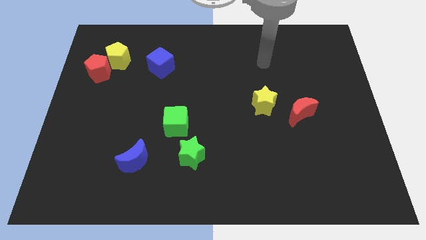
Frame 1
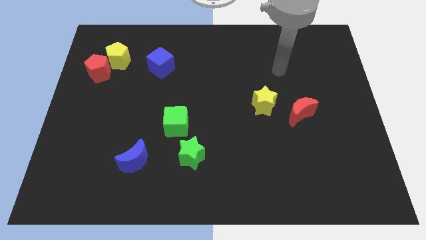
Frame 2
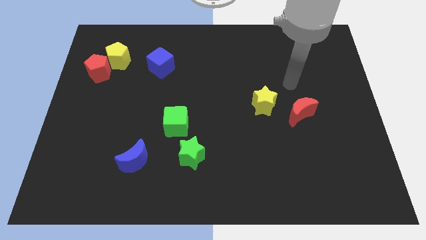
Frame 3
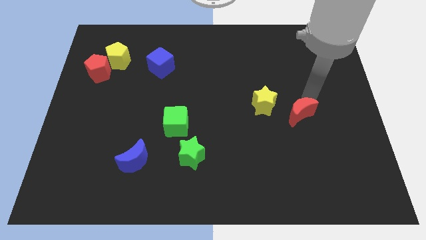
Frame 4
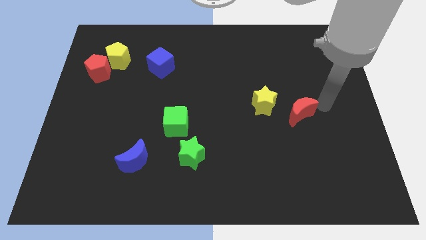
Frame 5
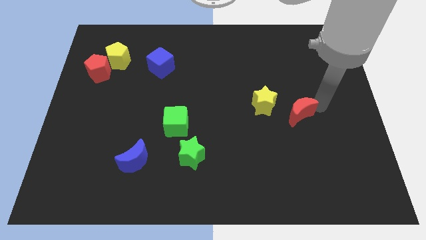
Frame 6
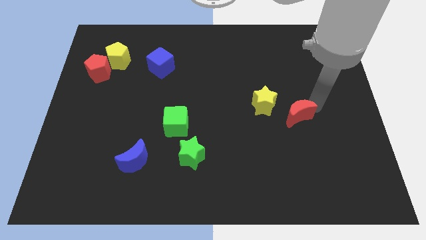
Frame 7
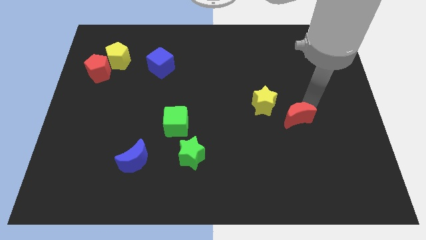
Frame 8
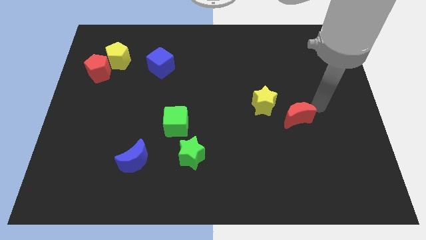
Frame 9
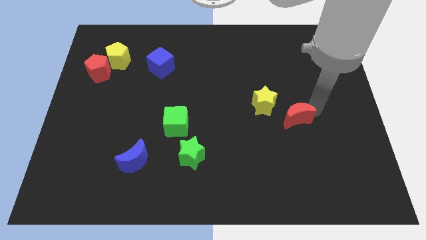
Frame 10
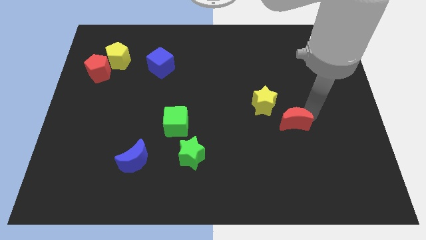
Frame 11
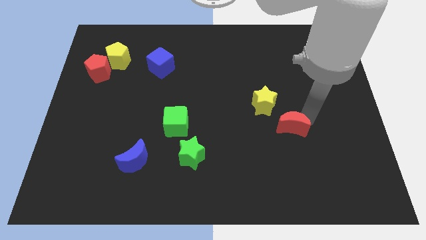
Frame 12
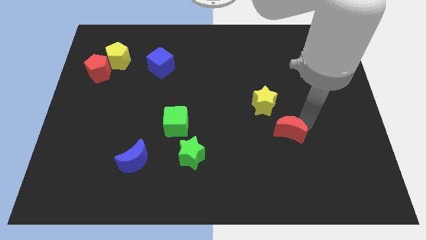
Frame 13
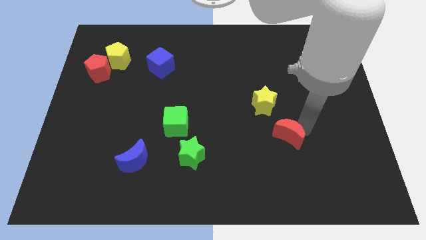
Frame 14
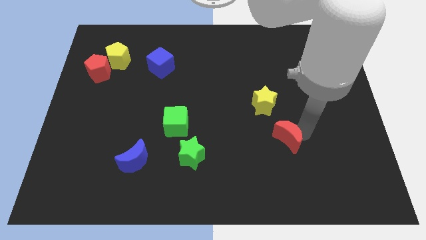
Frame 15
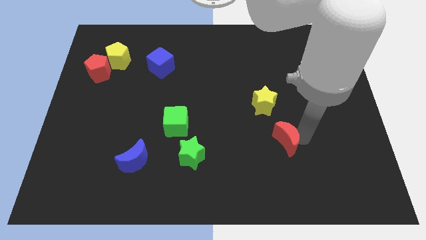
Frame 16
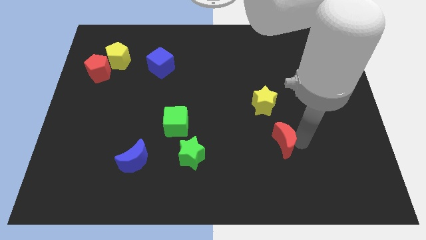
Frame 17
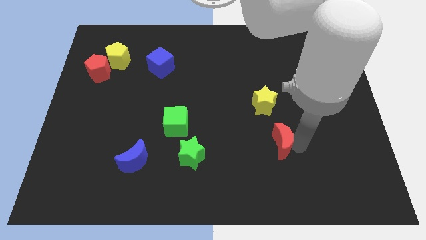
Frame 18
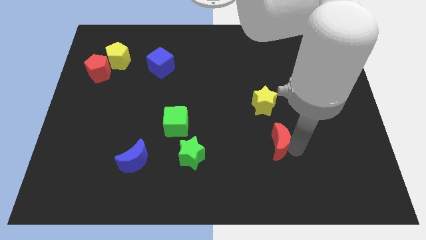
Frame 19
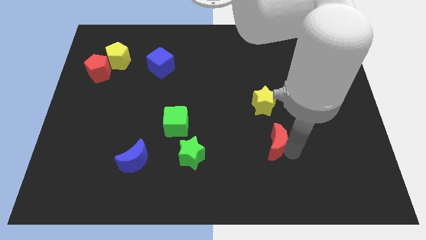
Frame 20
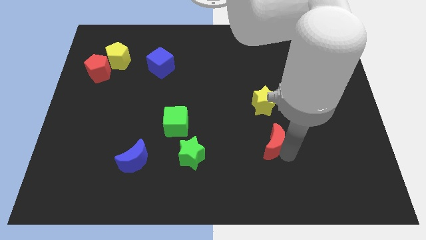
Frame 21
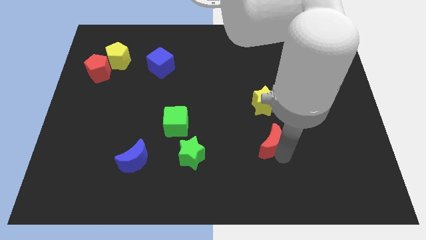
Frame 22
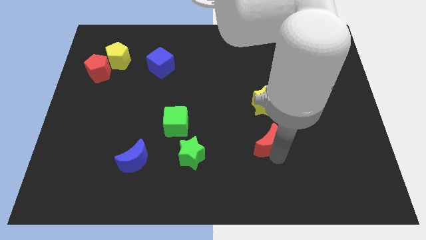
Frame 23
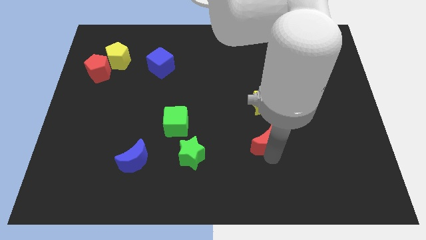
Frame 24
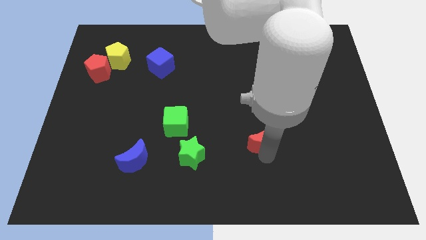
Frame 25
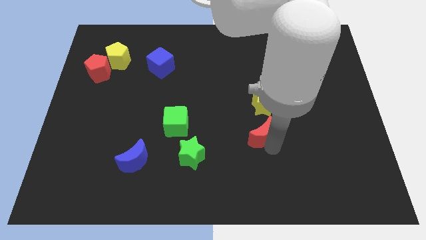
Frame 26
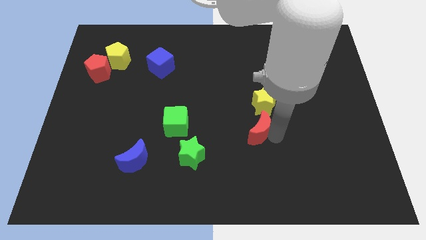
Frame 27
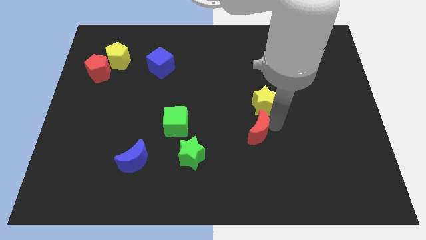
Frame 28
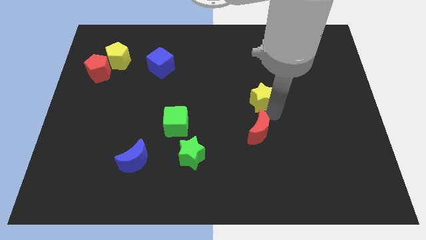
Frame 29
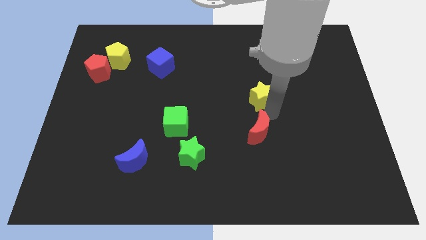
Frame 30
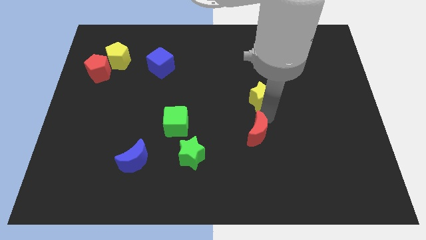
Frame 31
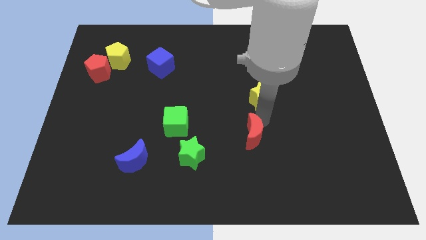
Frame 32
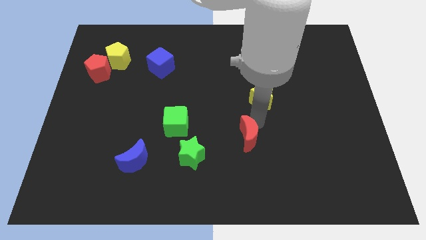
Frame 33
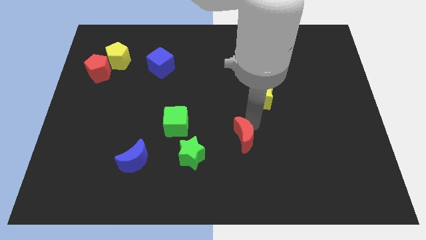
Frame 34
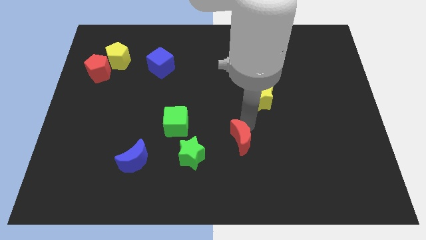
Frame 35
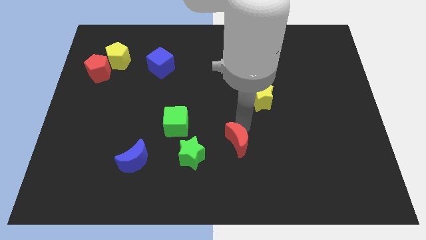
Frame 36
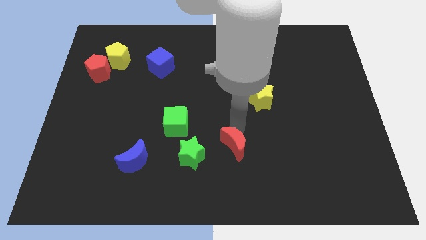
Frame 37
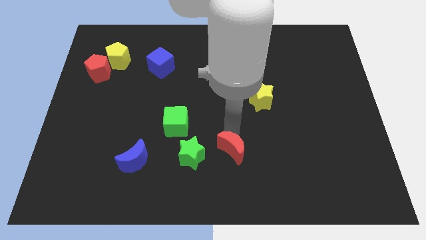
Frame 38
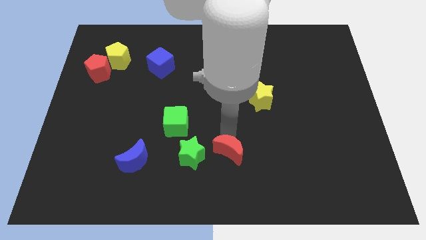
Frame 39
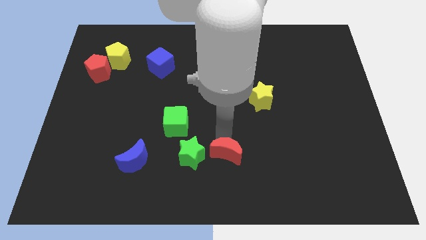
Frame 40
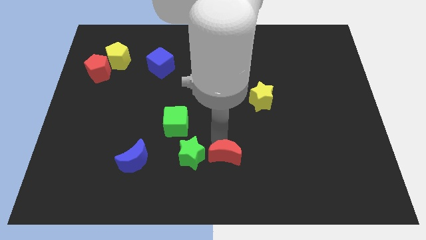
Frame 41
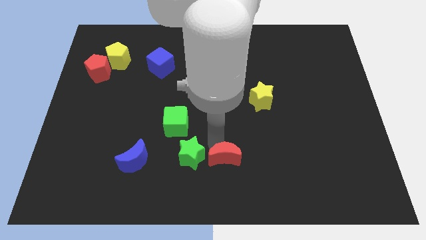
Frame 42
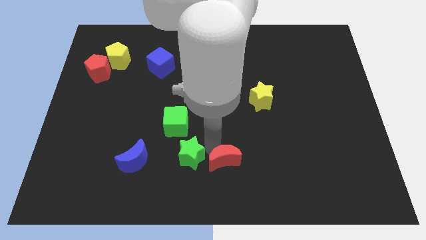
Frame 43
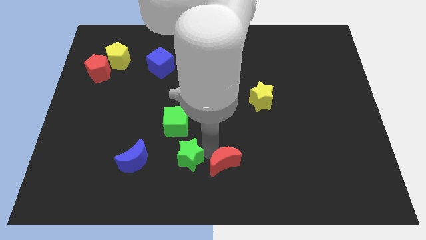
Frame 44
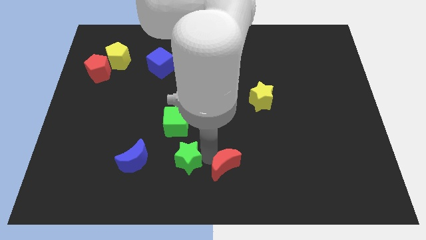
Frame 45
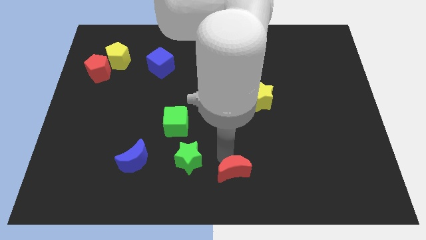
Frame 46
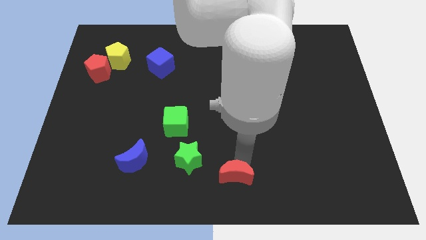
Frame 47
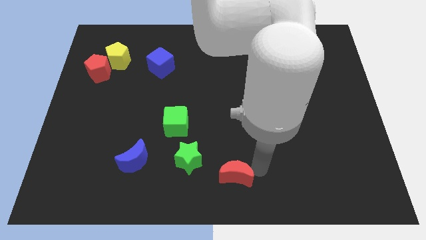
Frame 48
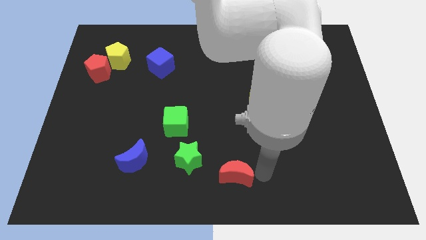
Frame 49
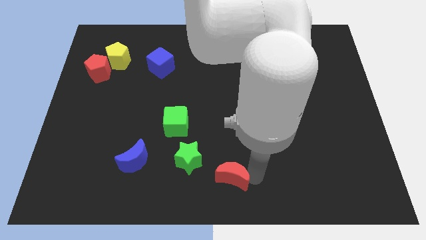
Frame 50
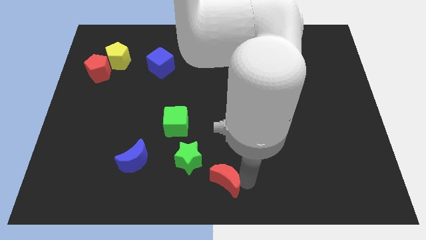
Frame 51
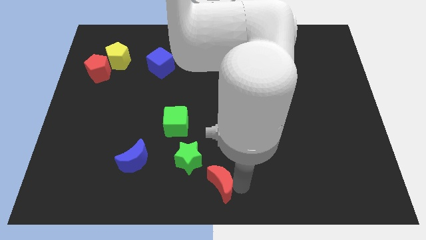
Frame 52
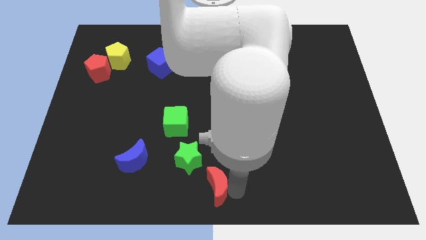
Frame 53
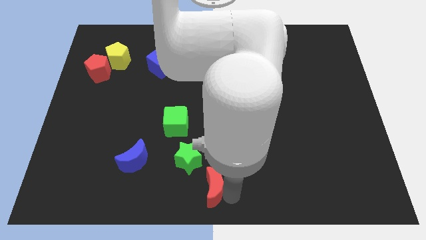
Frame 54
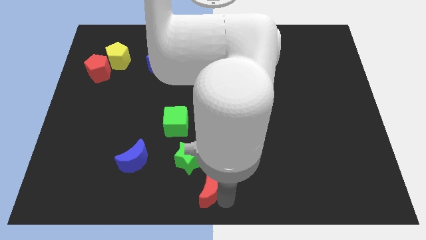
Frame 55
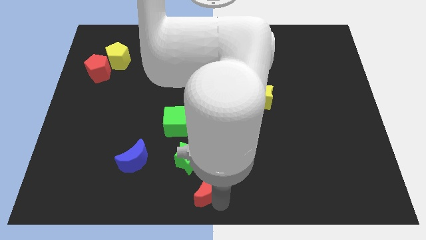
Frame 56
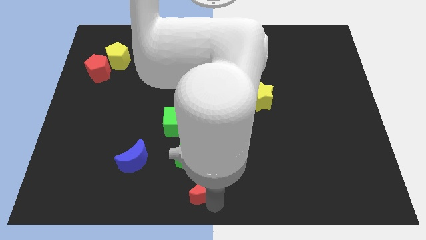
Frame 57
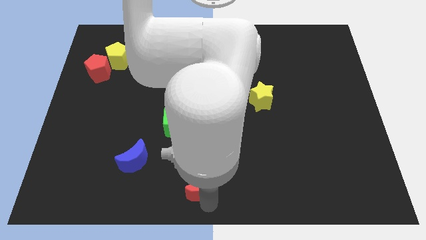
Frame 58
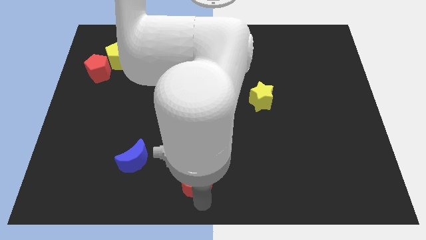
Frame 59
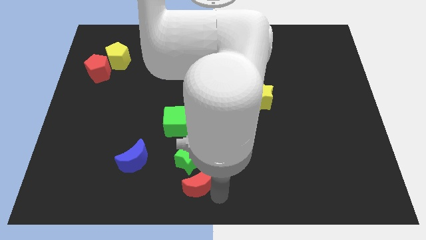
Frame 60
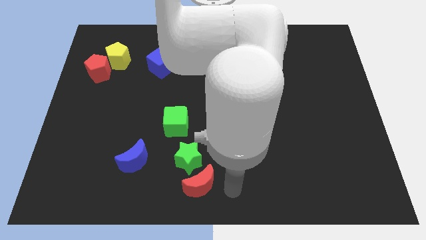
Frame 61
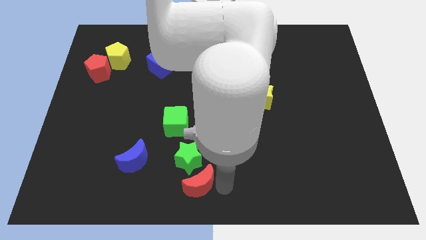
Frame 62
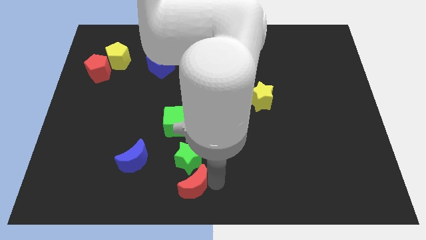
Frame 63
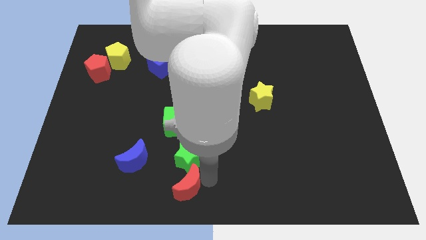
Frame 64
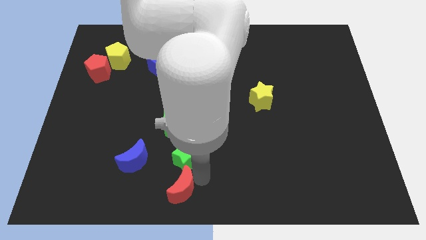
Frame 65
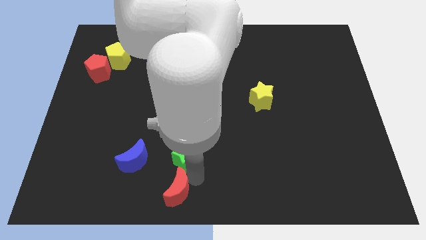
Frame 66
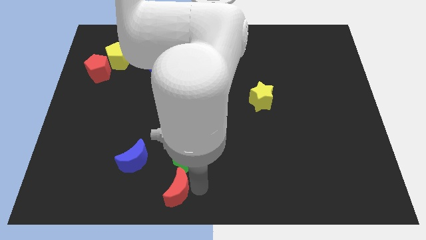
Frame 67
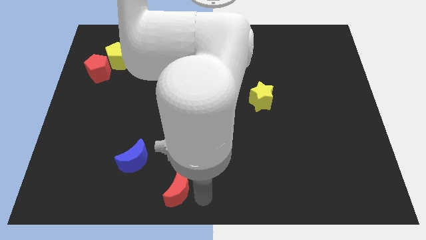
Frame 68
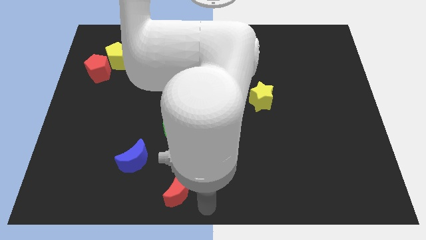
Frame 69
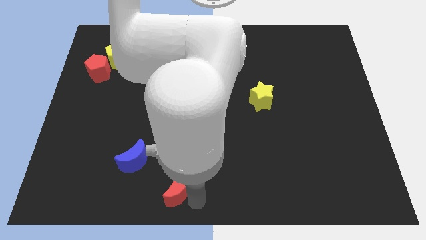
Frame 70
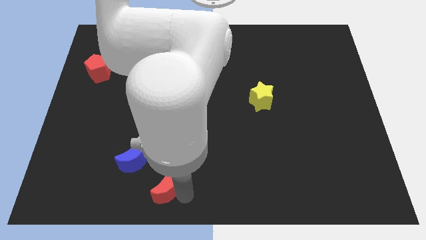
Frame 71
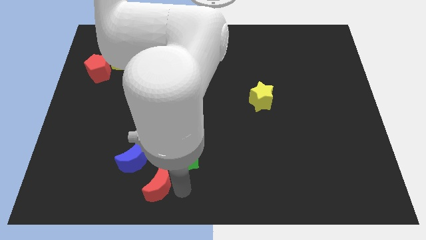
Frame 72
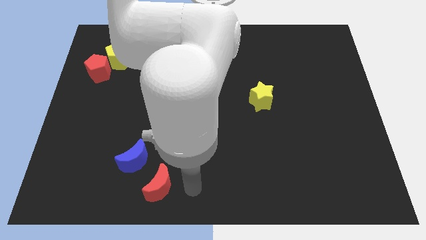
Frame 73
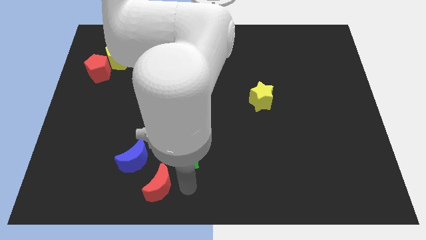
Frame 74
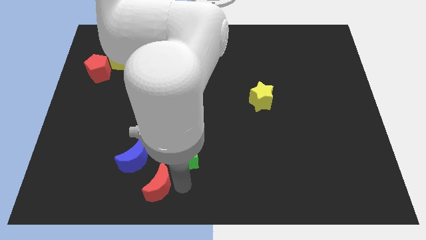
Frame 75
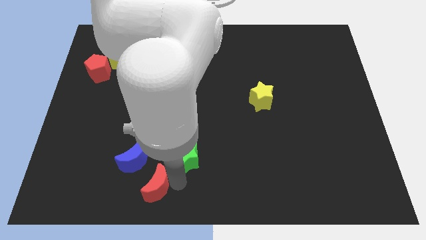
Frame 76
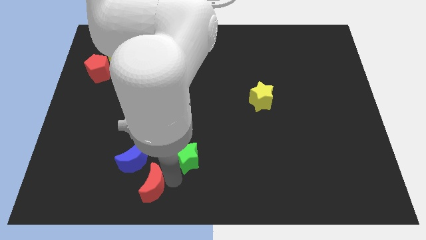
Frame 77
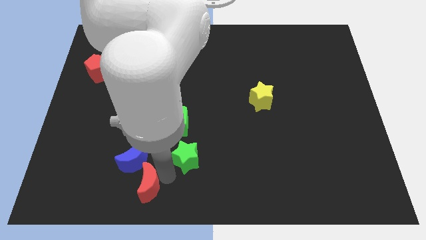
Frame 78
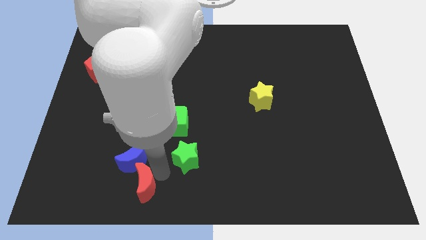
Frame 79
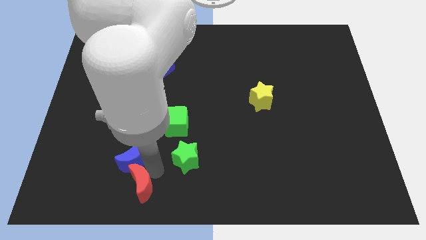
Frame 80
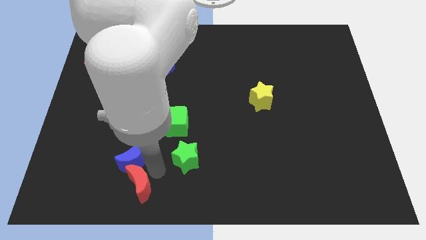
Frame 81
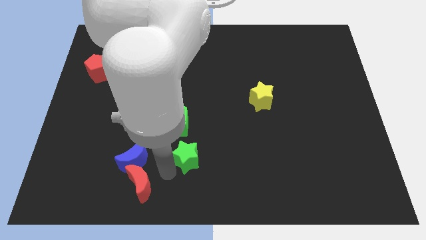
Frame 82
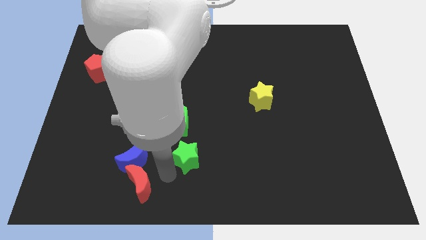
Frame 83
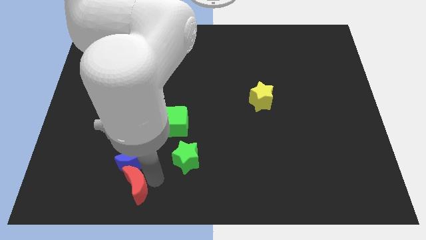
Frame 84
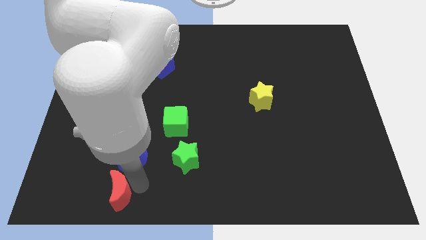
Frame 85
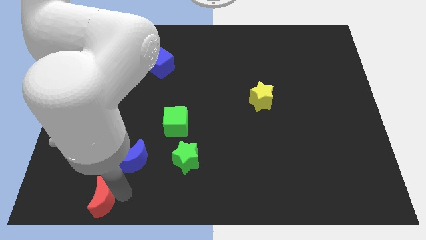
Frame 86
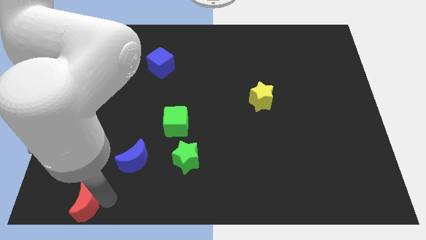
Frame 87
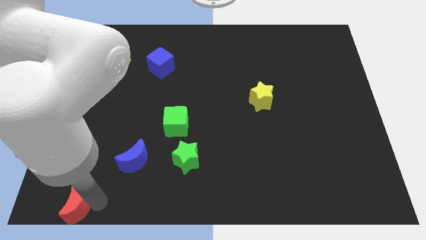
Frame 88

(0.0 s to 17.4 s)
slide the red moon to the lower left corner
